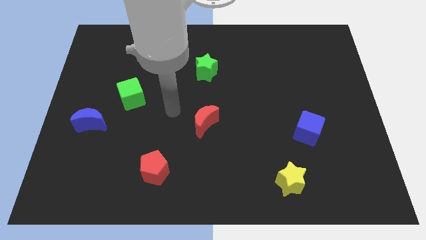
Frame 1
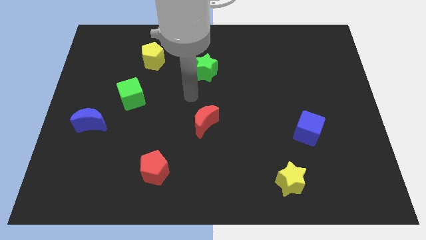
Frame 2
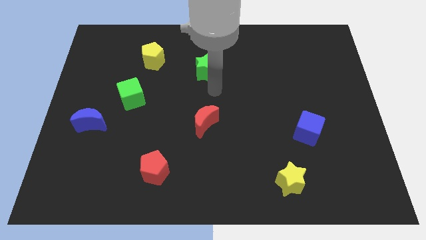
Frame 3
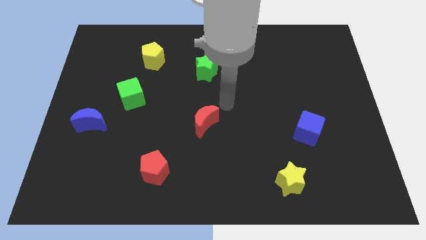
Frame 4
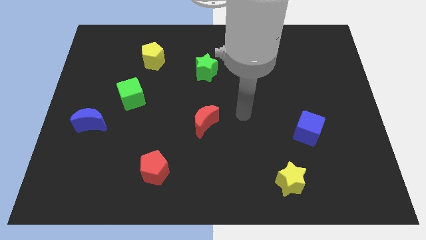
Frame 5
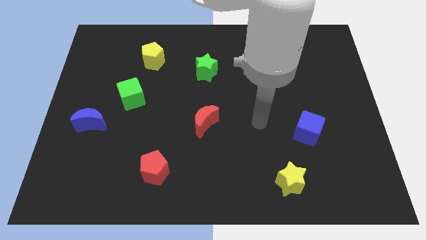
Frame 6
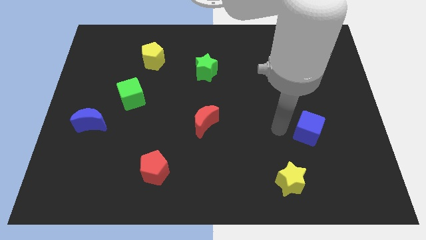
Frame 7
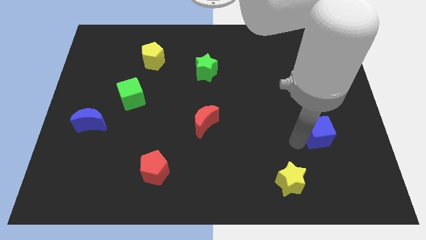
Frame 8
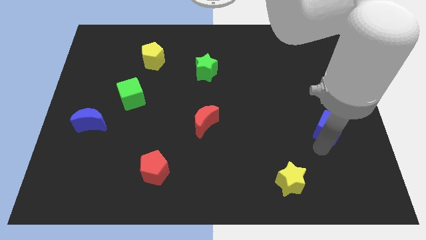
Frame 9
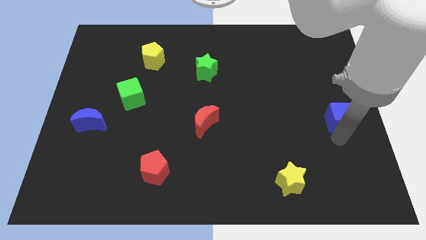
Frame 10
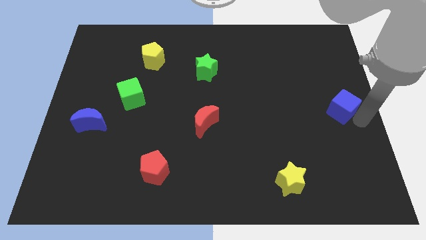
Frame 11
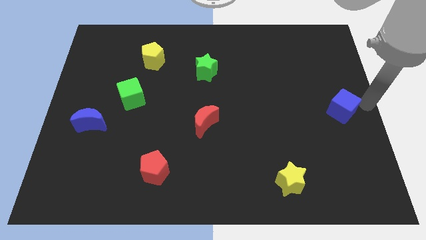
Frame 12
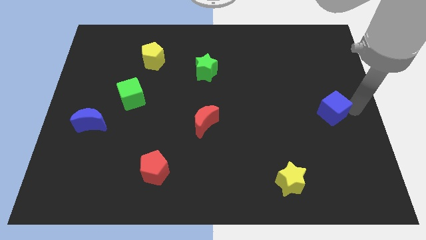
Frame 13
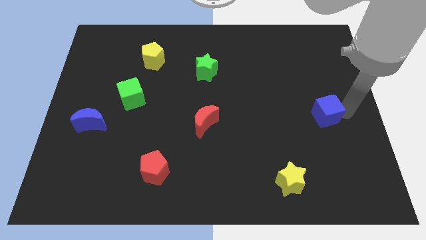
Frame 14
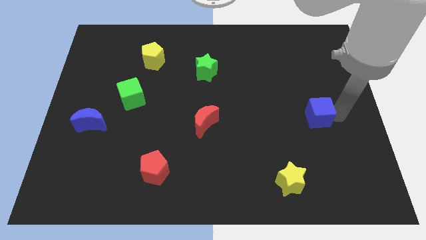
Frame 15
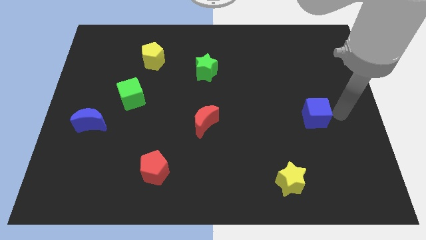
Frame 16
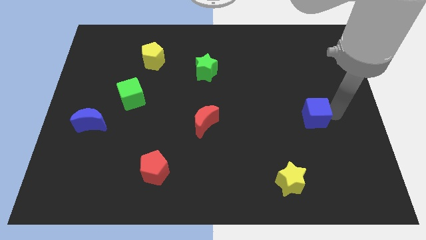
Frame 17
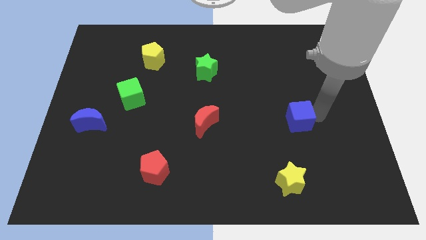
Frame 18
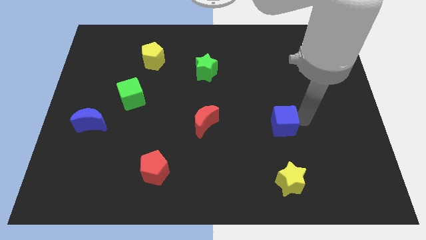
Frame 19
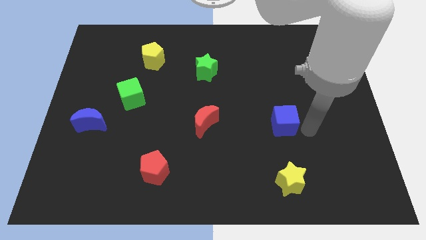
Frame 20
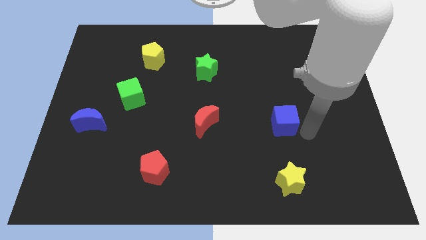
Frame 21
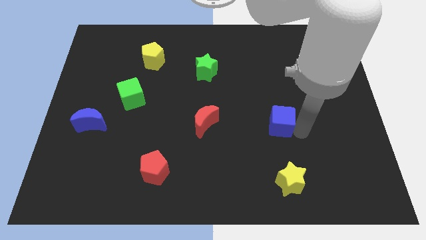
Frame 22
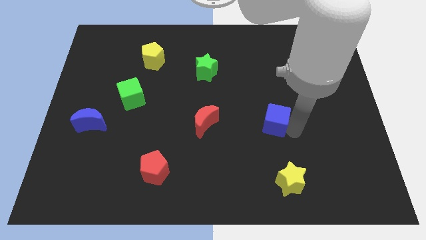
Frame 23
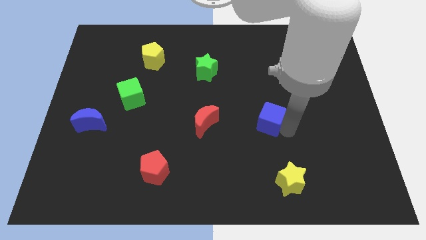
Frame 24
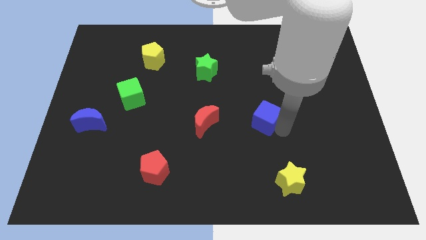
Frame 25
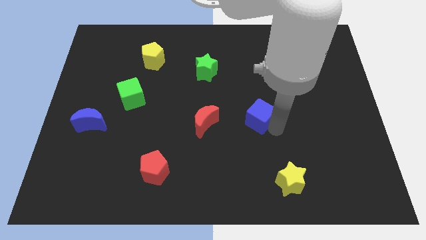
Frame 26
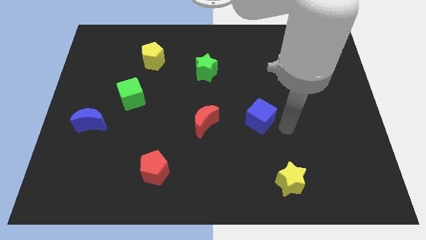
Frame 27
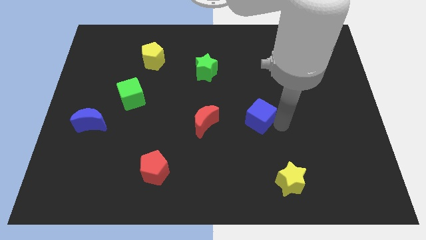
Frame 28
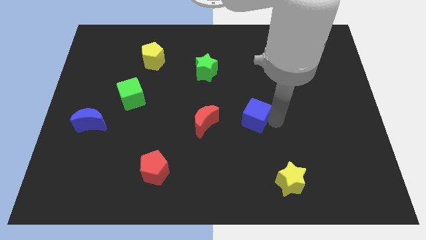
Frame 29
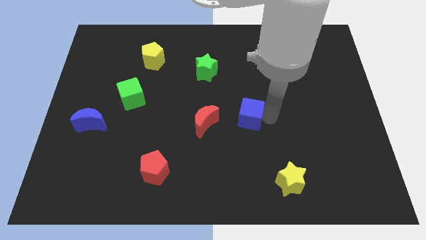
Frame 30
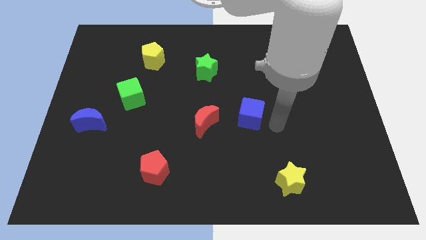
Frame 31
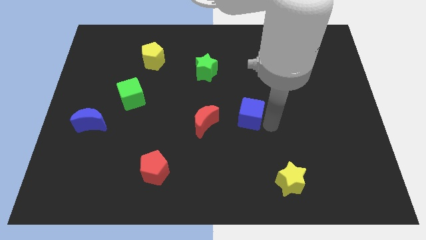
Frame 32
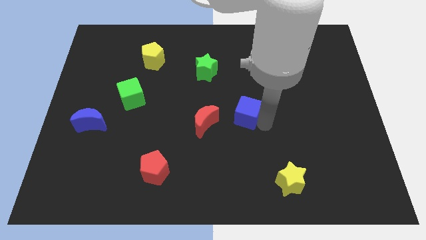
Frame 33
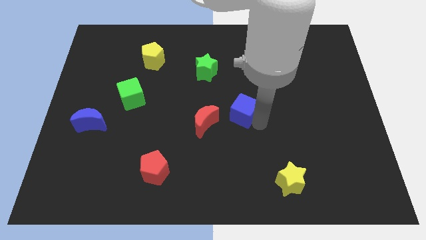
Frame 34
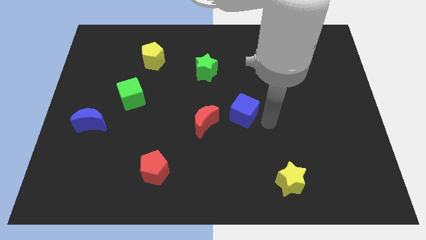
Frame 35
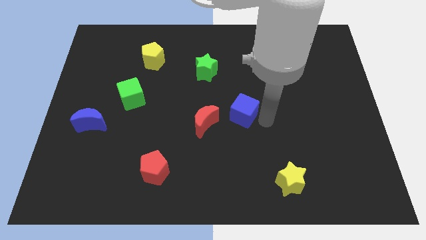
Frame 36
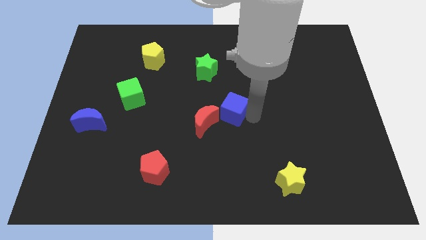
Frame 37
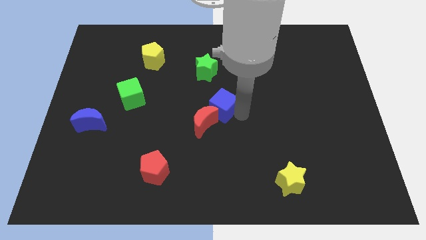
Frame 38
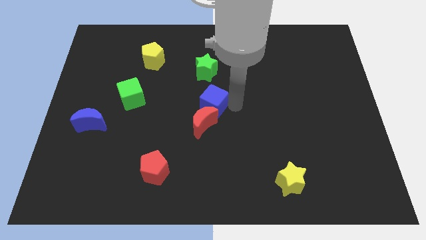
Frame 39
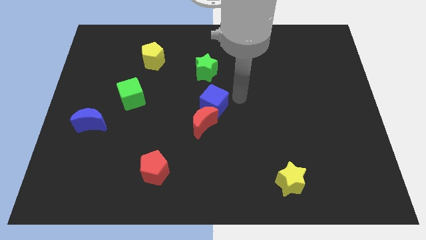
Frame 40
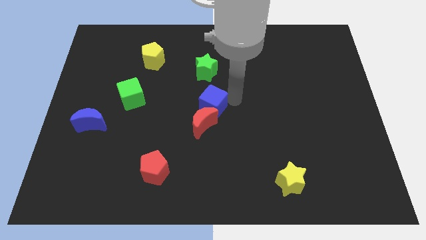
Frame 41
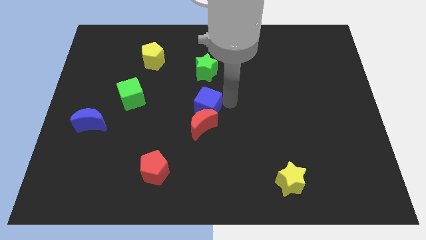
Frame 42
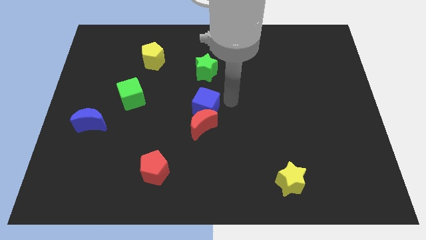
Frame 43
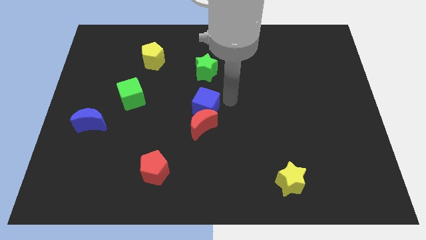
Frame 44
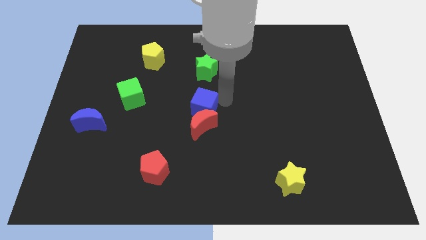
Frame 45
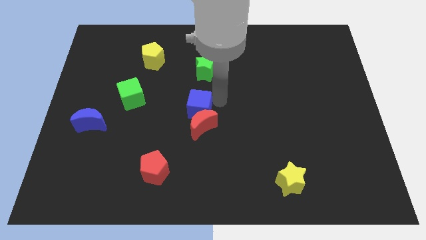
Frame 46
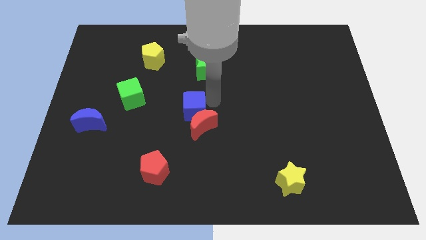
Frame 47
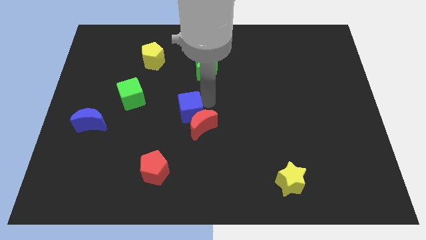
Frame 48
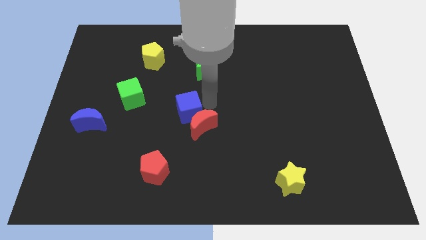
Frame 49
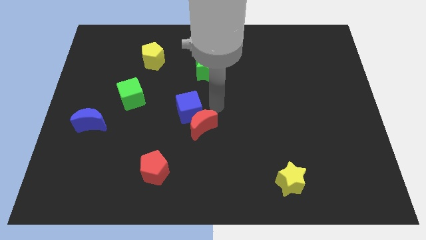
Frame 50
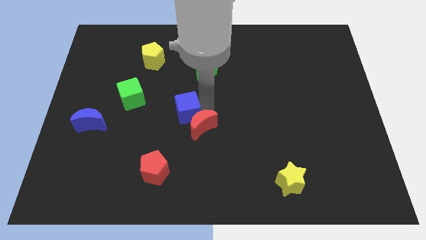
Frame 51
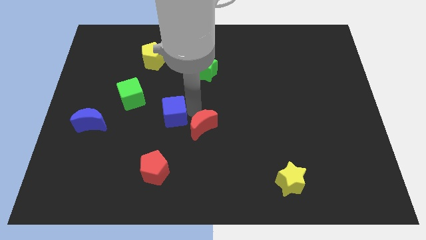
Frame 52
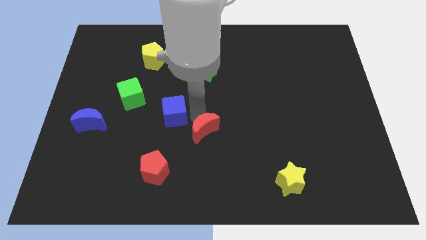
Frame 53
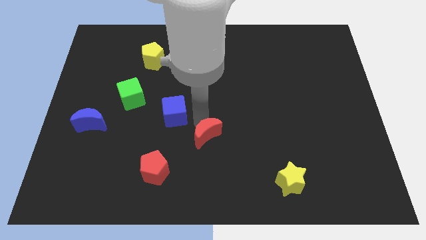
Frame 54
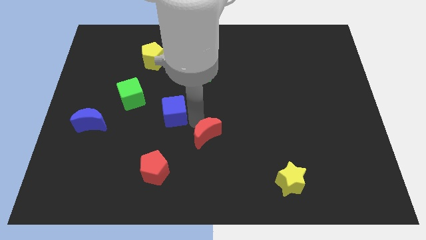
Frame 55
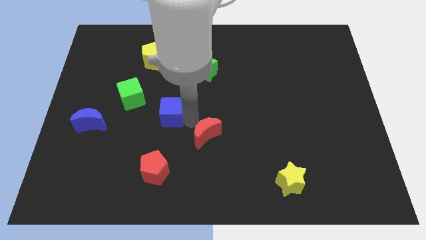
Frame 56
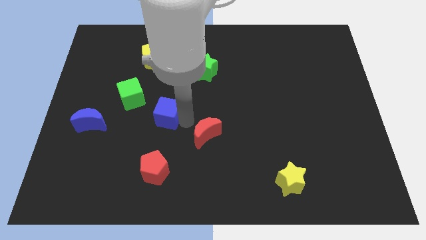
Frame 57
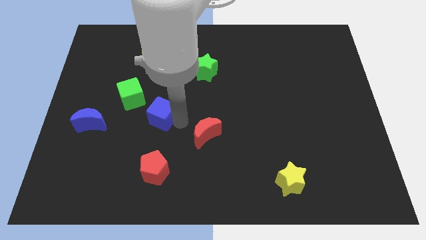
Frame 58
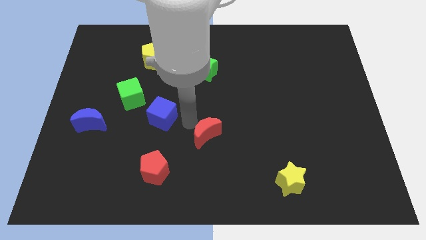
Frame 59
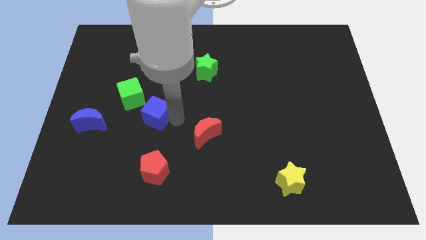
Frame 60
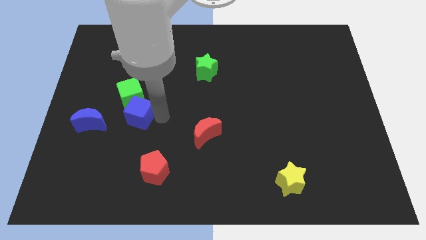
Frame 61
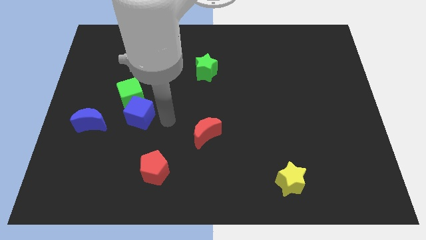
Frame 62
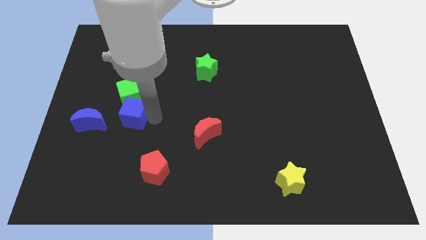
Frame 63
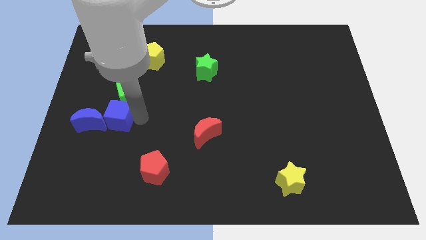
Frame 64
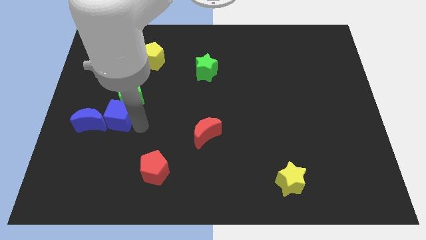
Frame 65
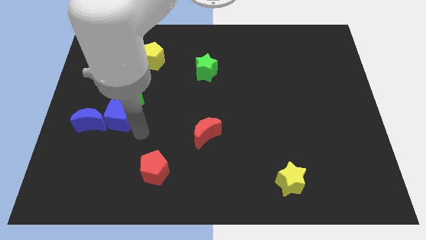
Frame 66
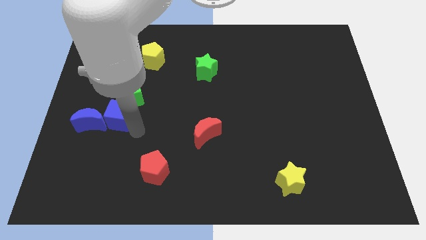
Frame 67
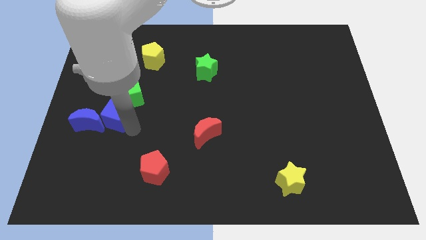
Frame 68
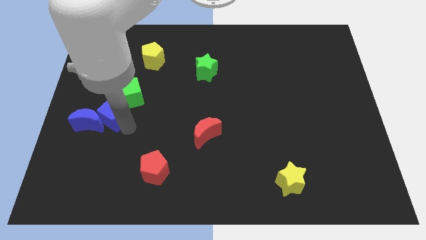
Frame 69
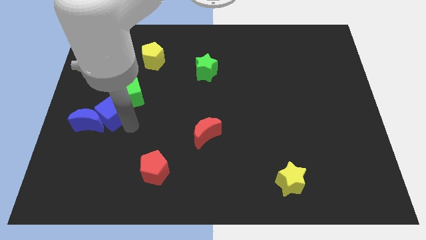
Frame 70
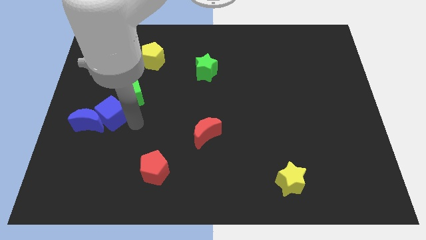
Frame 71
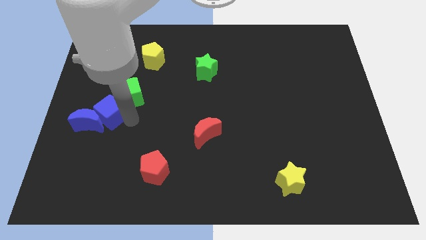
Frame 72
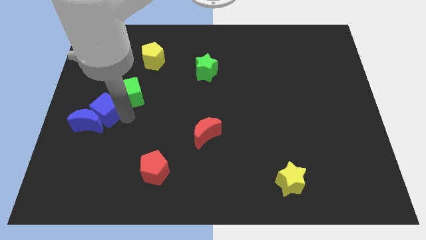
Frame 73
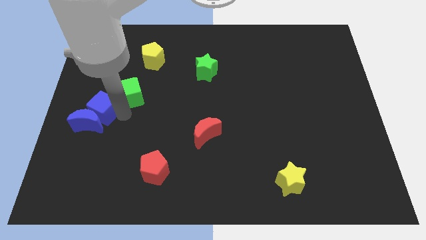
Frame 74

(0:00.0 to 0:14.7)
move the blue cube to the left side of the board

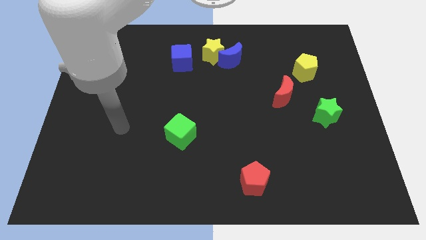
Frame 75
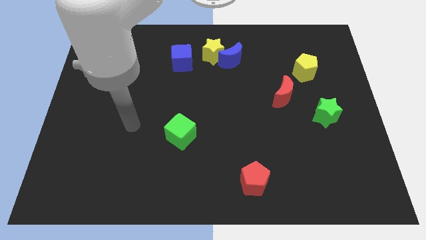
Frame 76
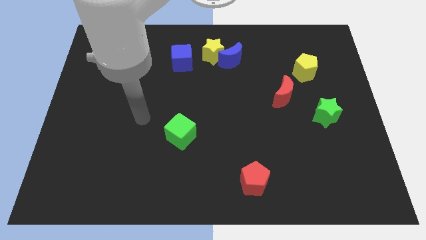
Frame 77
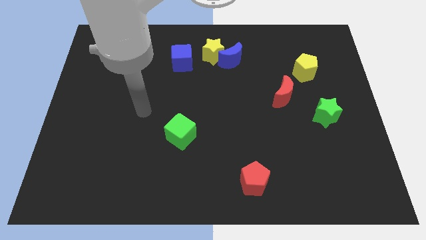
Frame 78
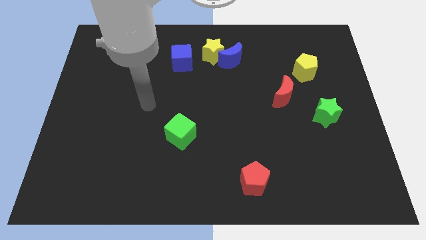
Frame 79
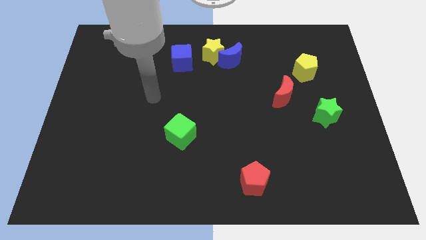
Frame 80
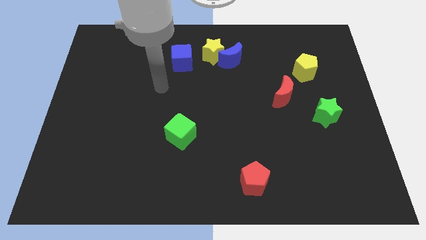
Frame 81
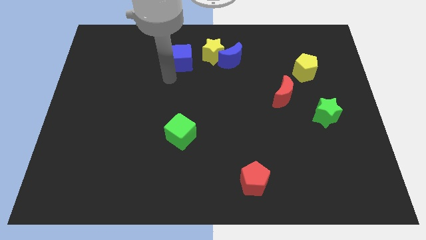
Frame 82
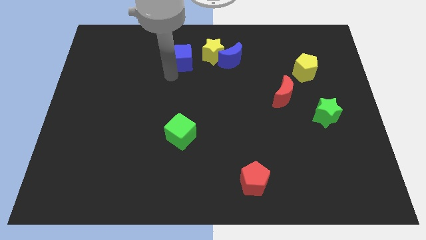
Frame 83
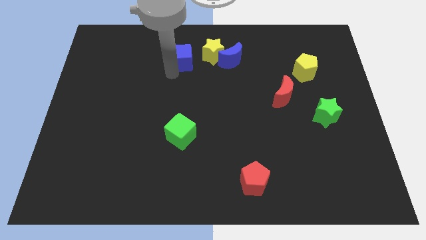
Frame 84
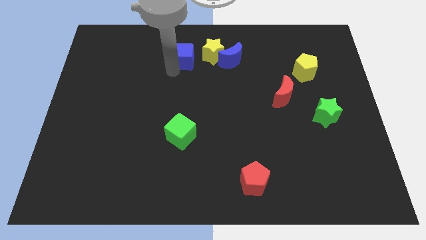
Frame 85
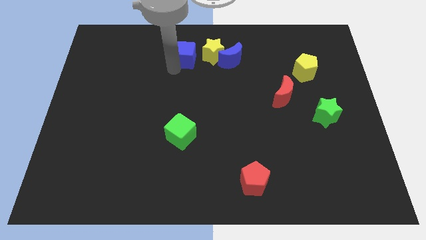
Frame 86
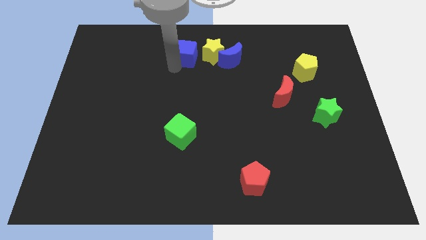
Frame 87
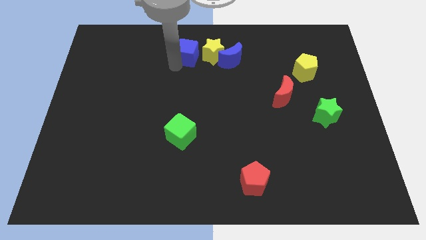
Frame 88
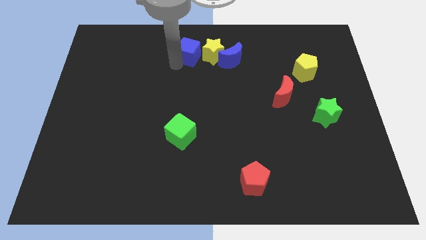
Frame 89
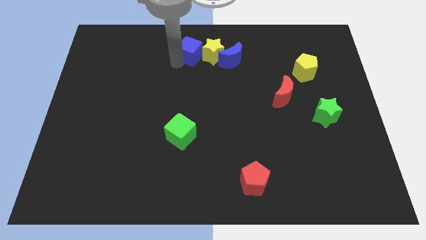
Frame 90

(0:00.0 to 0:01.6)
slide the blue cube to the towards your base
